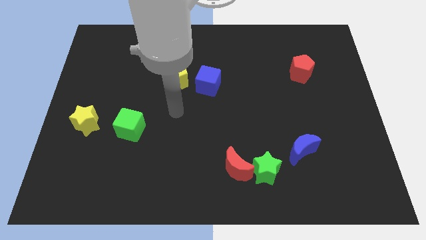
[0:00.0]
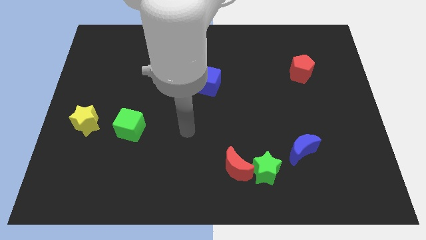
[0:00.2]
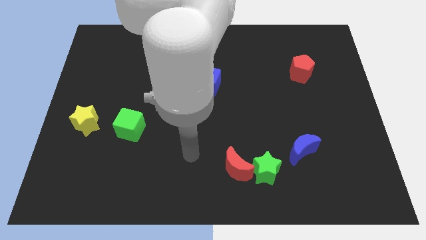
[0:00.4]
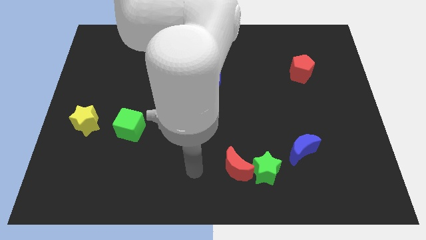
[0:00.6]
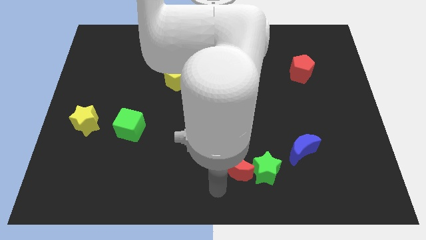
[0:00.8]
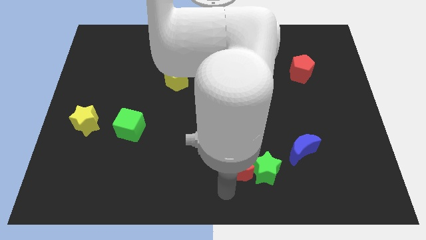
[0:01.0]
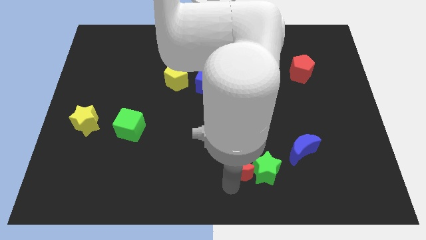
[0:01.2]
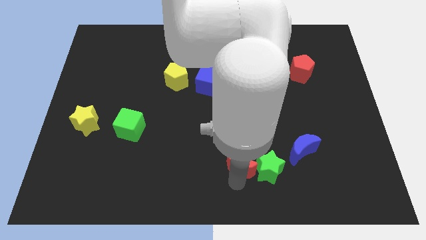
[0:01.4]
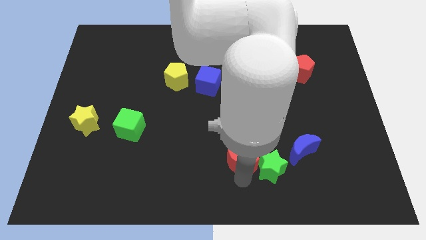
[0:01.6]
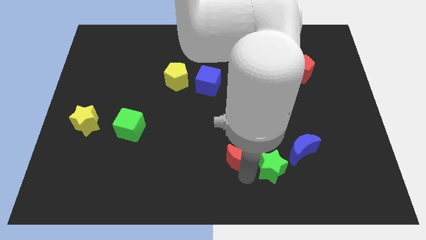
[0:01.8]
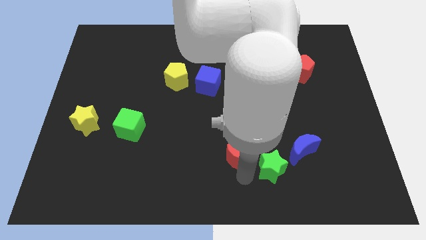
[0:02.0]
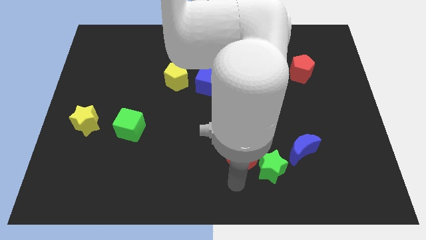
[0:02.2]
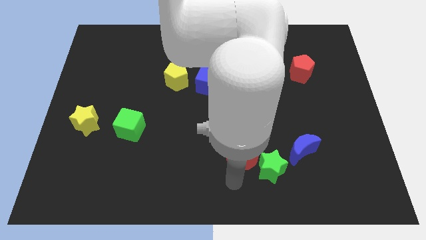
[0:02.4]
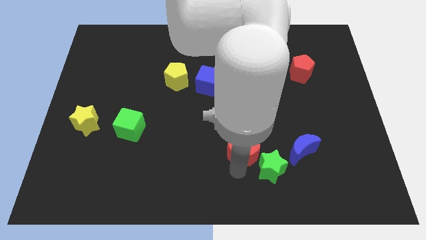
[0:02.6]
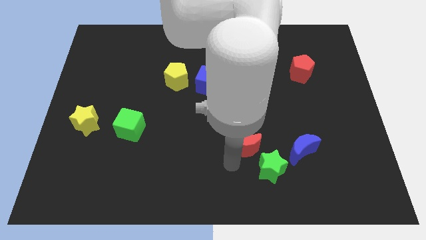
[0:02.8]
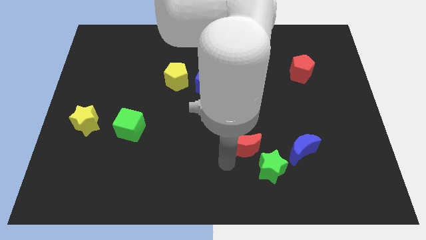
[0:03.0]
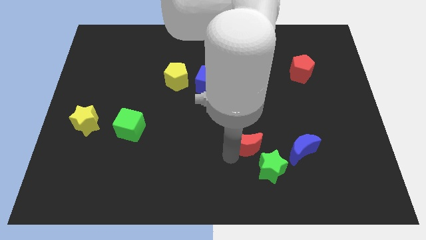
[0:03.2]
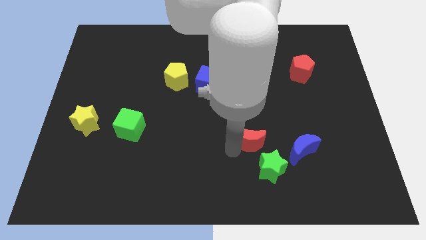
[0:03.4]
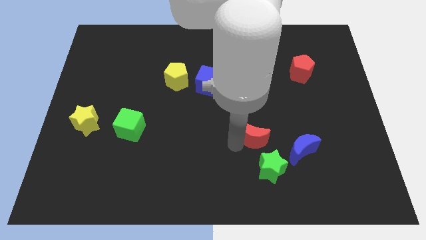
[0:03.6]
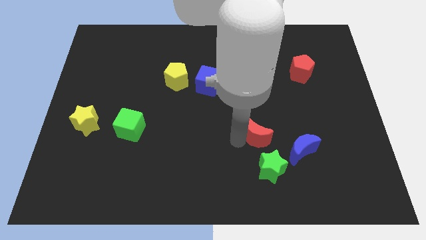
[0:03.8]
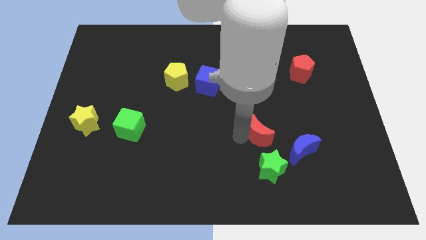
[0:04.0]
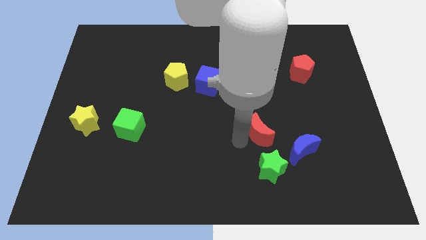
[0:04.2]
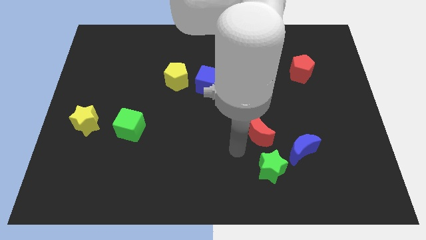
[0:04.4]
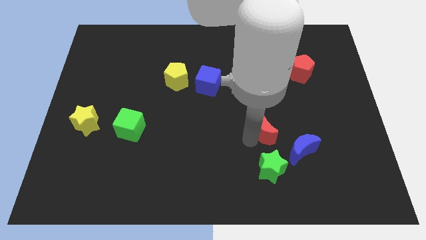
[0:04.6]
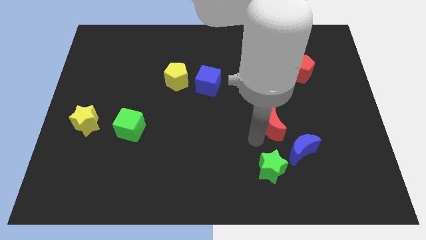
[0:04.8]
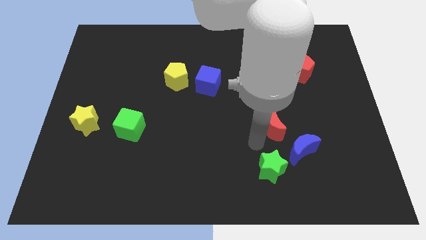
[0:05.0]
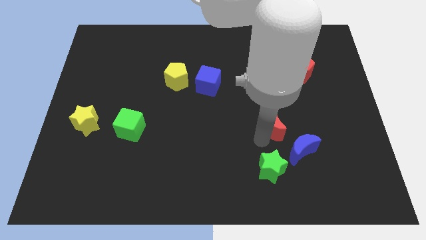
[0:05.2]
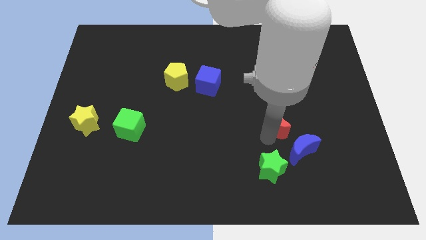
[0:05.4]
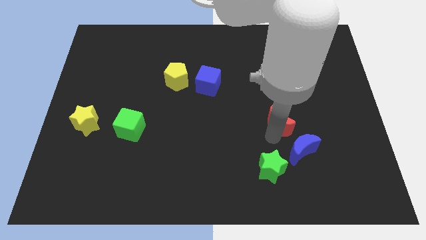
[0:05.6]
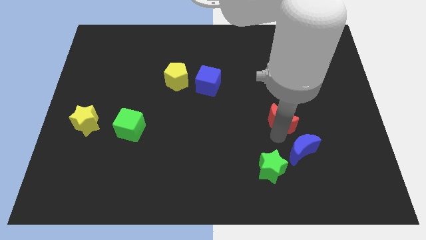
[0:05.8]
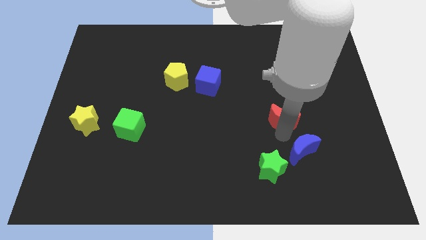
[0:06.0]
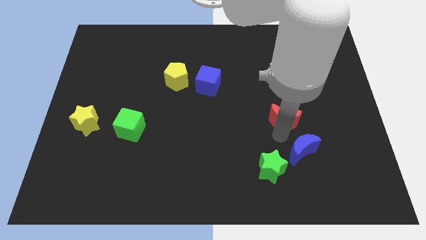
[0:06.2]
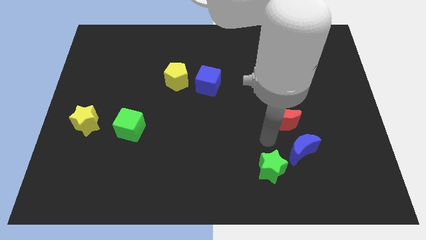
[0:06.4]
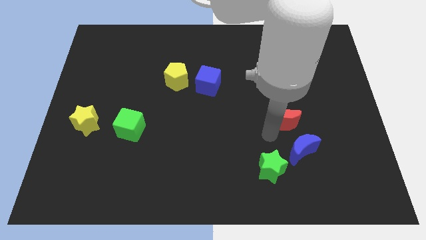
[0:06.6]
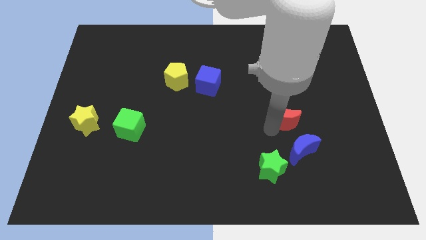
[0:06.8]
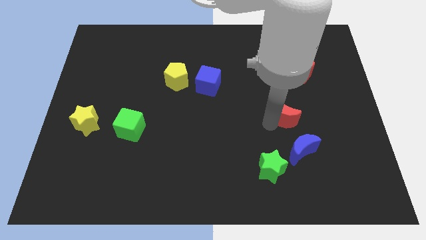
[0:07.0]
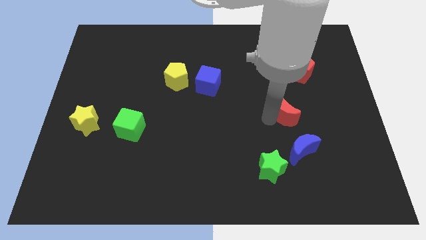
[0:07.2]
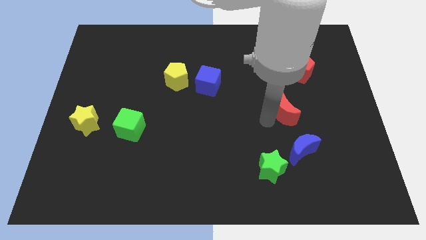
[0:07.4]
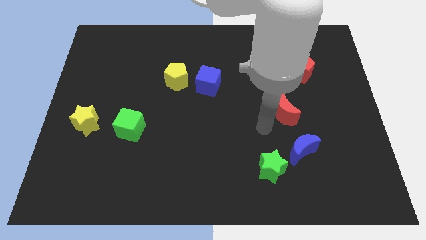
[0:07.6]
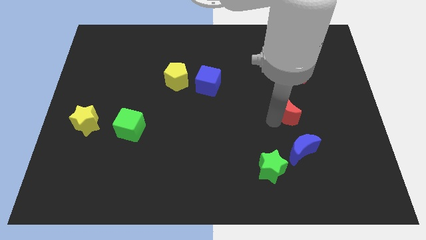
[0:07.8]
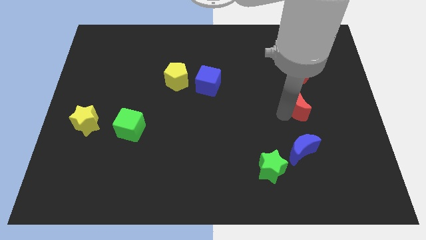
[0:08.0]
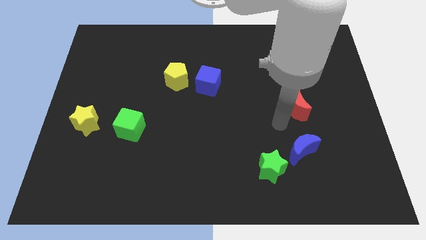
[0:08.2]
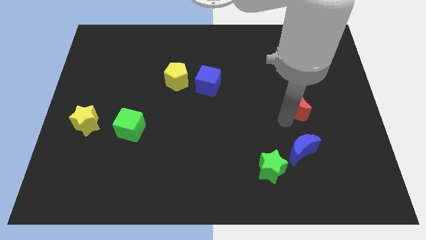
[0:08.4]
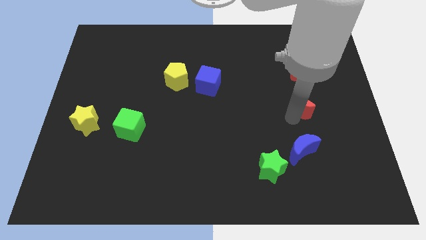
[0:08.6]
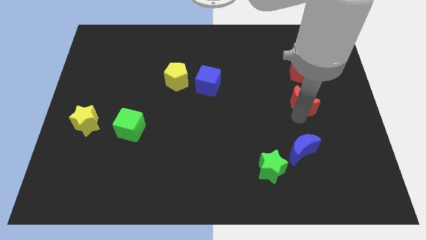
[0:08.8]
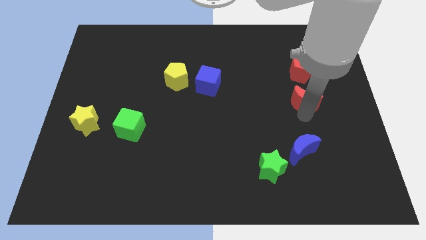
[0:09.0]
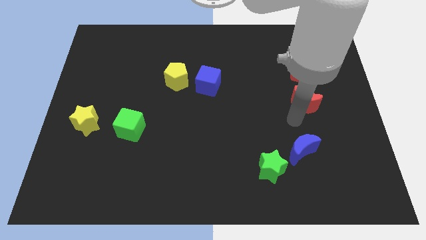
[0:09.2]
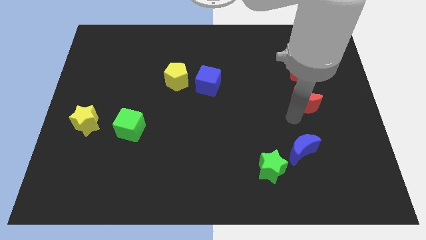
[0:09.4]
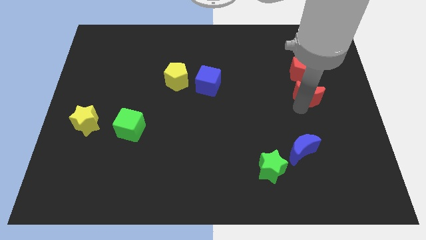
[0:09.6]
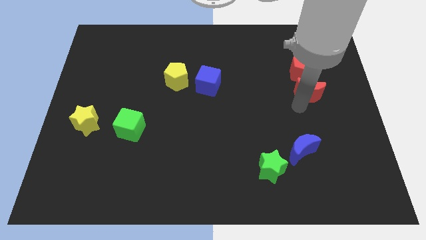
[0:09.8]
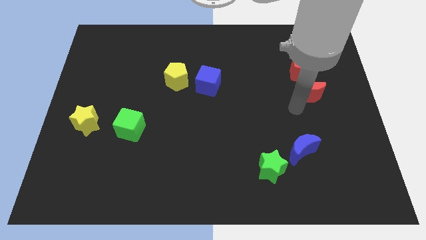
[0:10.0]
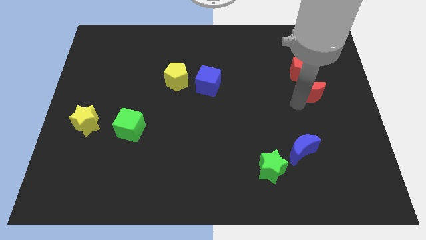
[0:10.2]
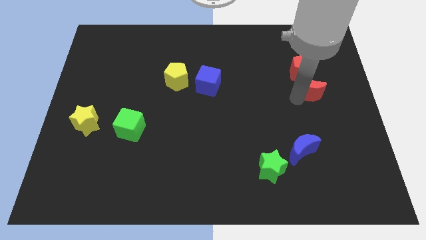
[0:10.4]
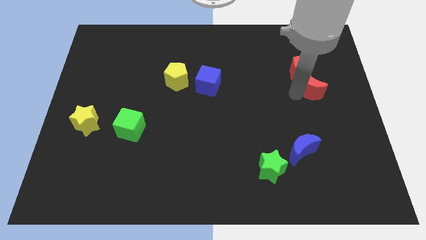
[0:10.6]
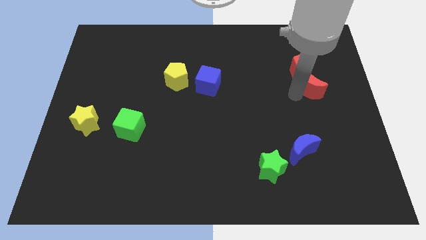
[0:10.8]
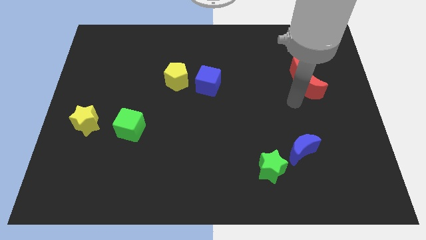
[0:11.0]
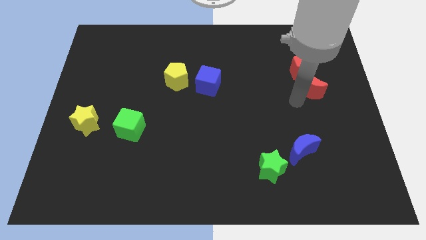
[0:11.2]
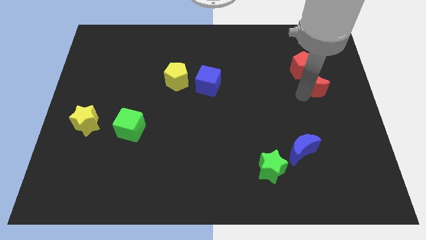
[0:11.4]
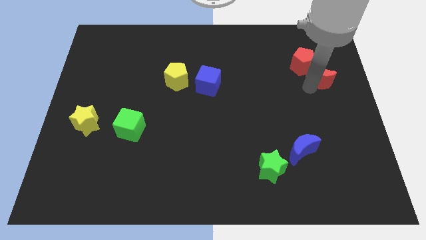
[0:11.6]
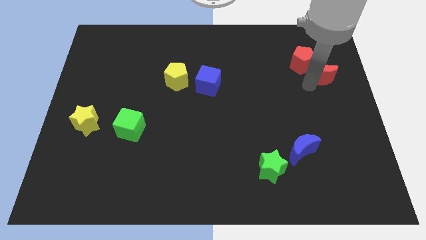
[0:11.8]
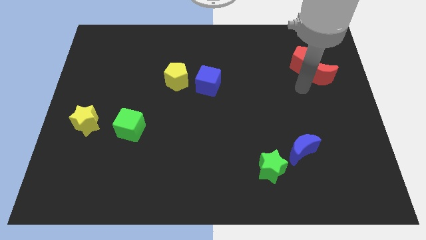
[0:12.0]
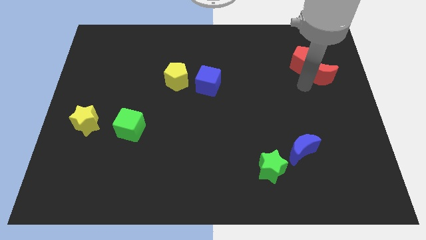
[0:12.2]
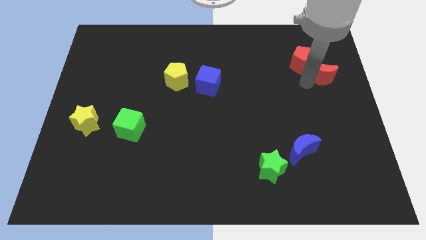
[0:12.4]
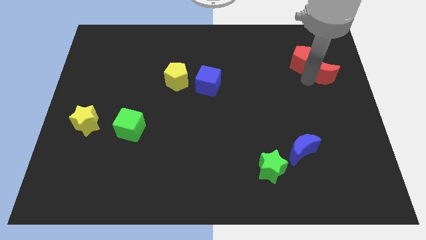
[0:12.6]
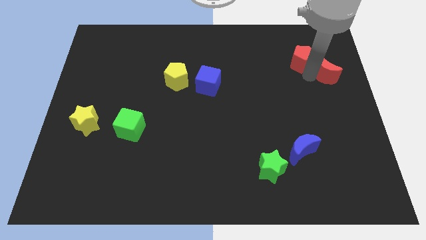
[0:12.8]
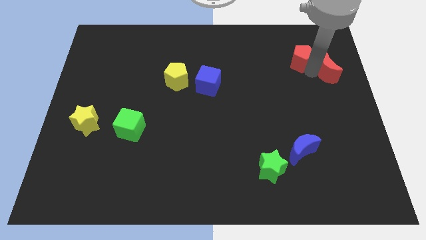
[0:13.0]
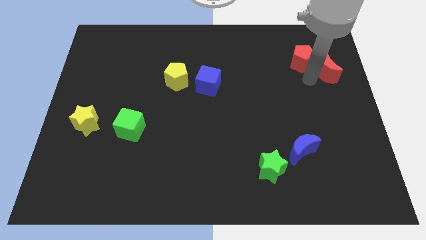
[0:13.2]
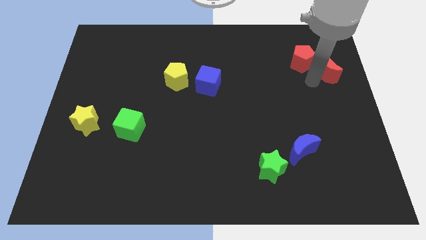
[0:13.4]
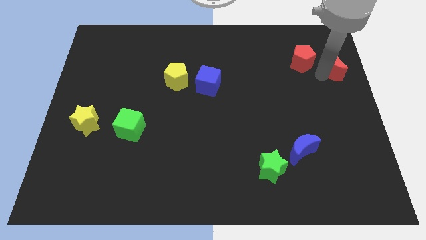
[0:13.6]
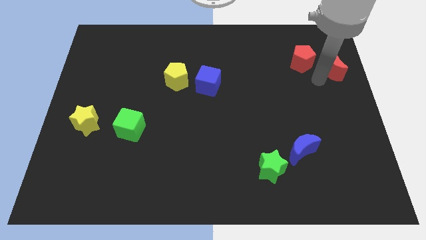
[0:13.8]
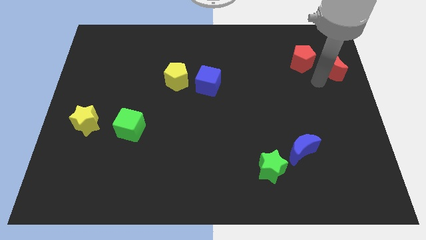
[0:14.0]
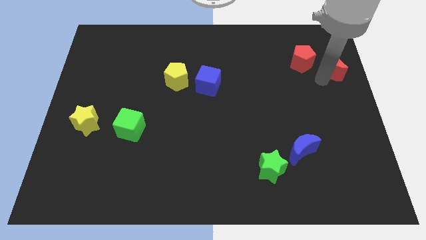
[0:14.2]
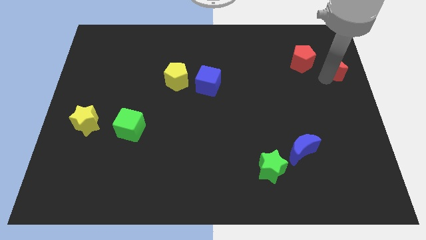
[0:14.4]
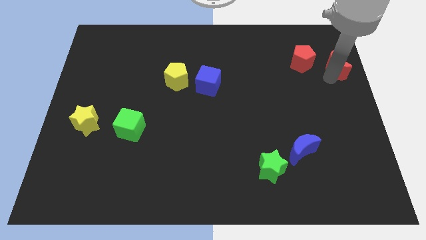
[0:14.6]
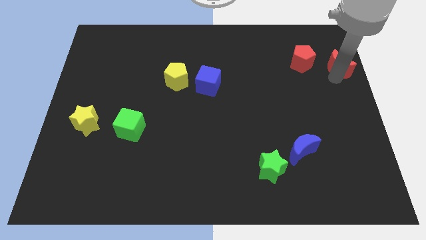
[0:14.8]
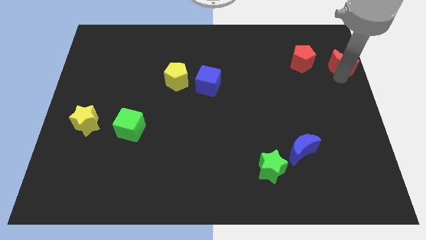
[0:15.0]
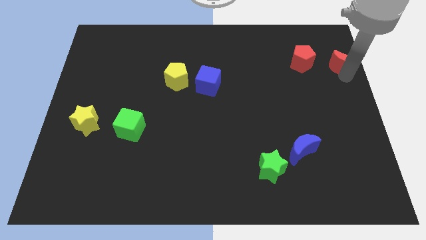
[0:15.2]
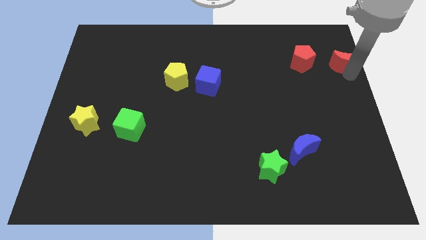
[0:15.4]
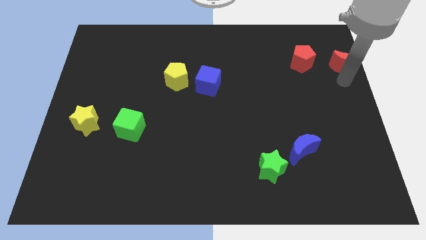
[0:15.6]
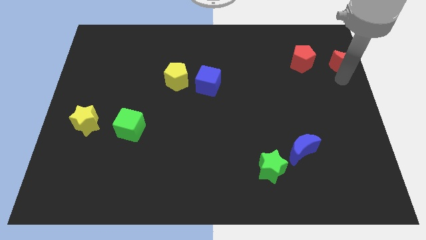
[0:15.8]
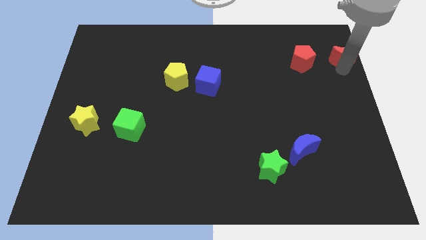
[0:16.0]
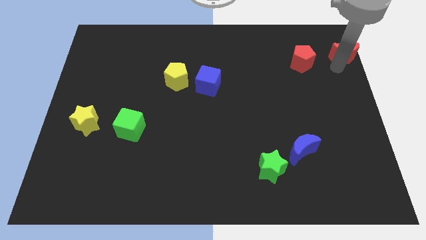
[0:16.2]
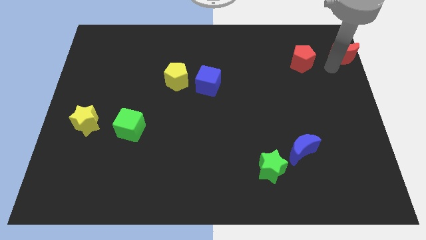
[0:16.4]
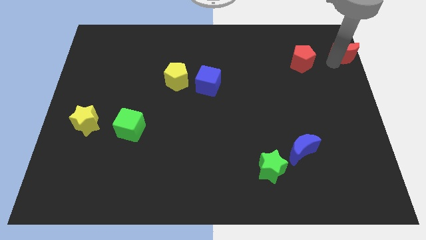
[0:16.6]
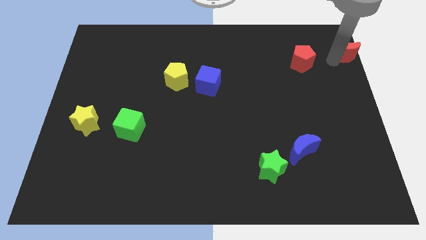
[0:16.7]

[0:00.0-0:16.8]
push the red moon to the top right of the board
